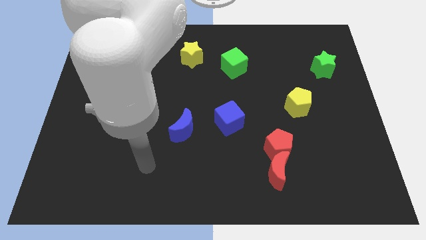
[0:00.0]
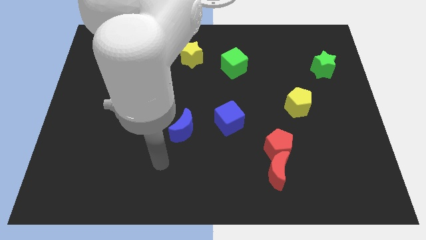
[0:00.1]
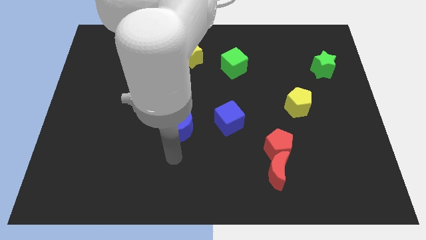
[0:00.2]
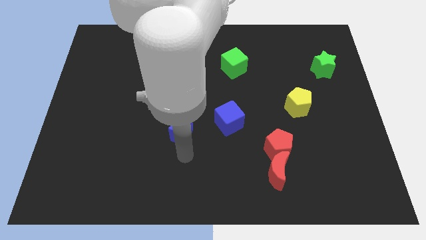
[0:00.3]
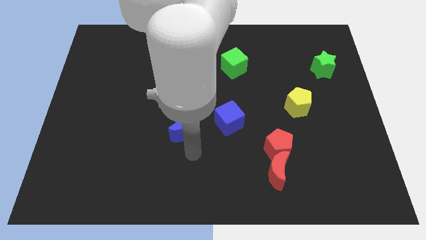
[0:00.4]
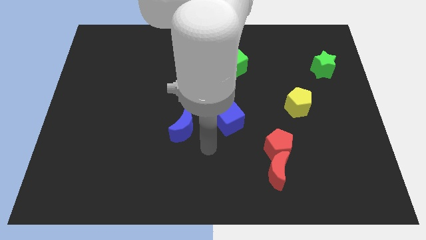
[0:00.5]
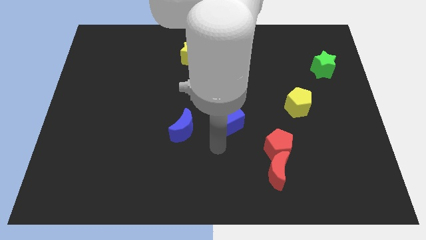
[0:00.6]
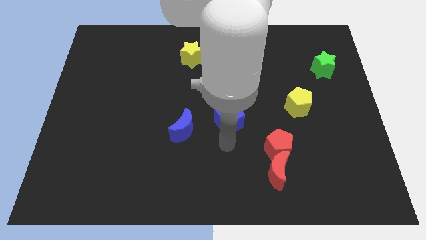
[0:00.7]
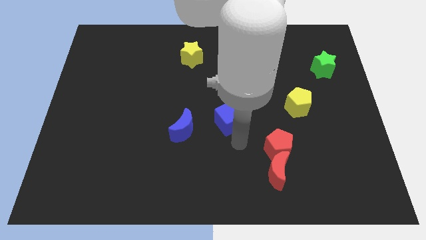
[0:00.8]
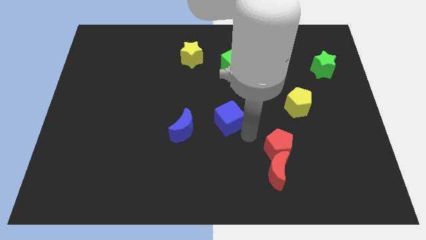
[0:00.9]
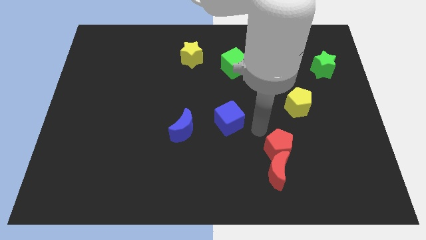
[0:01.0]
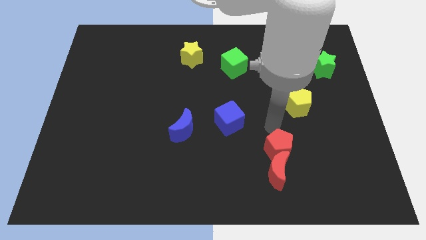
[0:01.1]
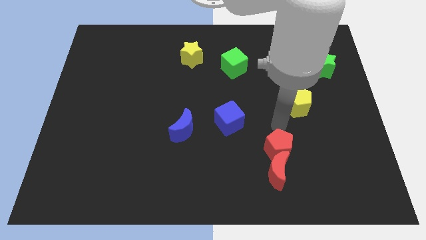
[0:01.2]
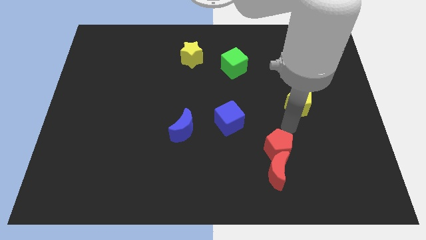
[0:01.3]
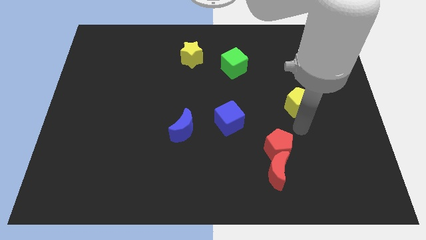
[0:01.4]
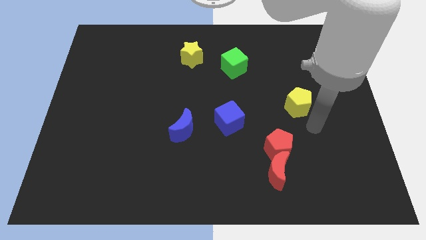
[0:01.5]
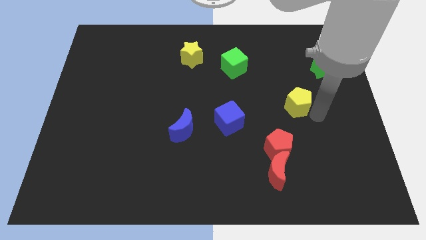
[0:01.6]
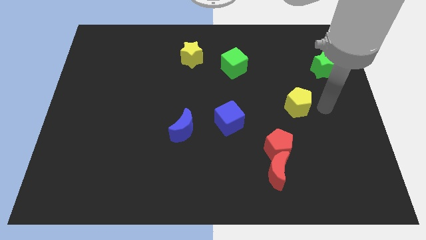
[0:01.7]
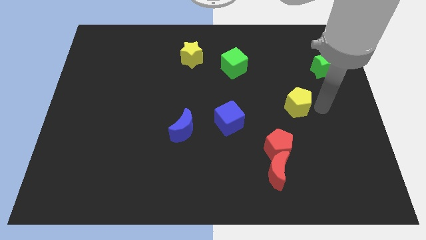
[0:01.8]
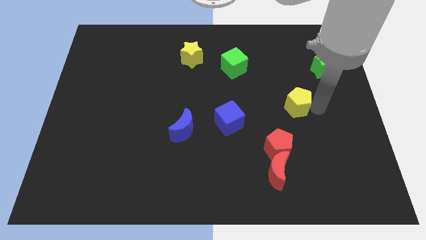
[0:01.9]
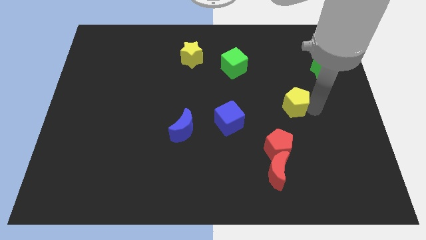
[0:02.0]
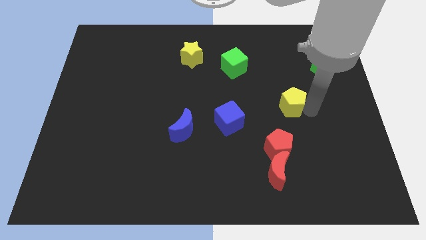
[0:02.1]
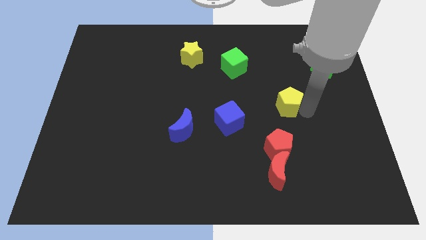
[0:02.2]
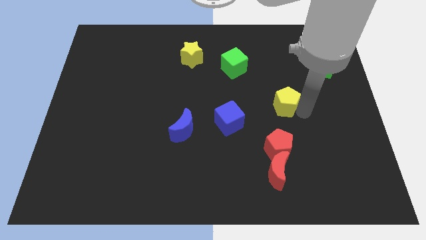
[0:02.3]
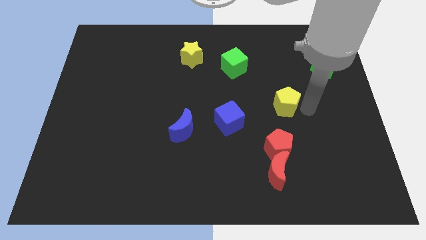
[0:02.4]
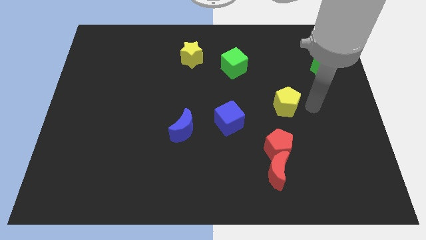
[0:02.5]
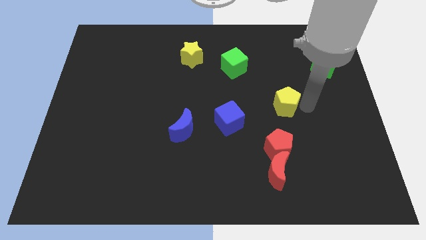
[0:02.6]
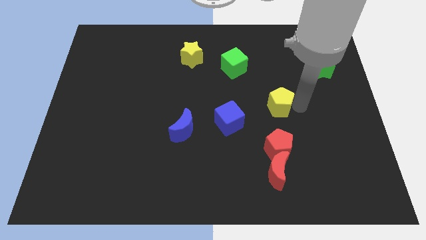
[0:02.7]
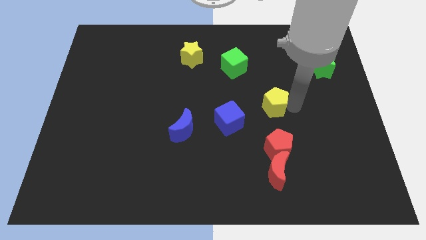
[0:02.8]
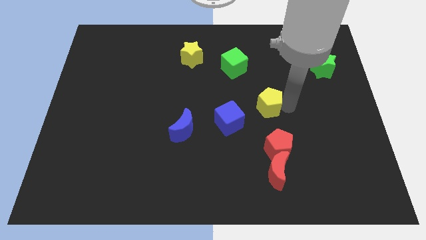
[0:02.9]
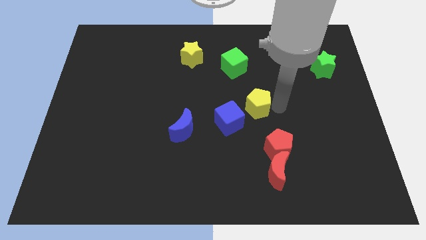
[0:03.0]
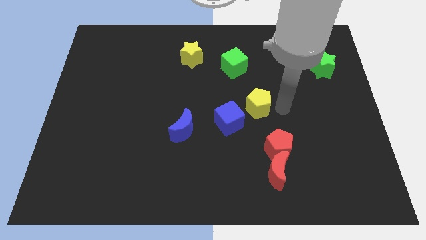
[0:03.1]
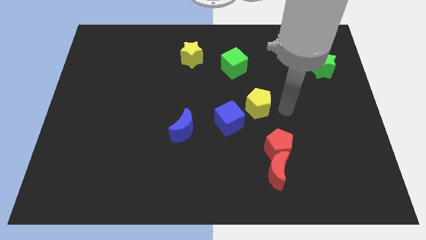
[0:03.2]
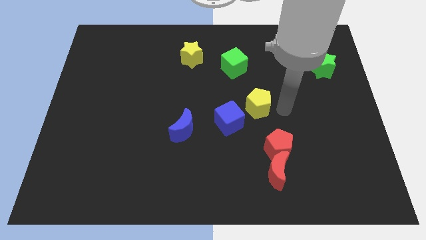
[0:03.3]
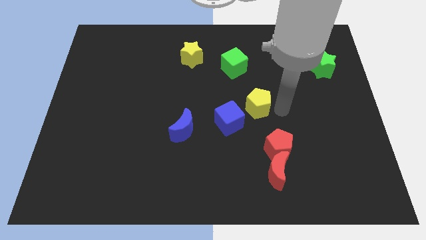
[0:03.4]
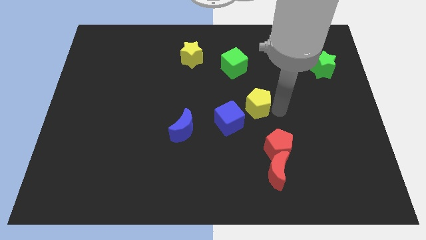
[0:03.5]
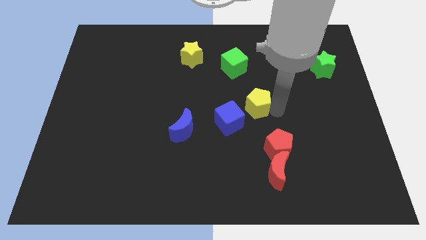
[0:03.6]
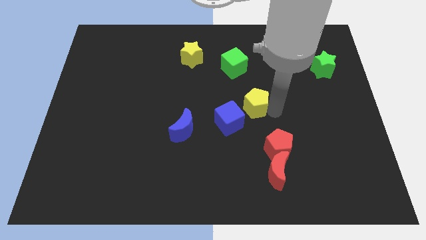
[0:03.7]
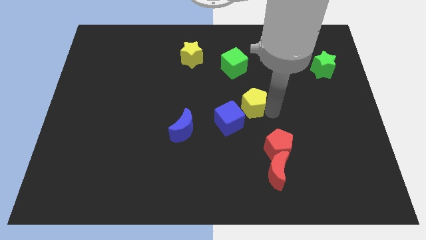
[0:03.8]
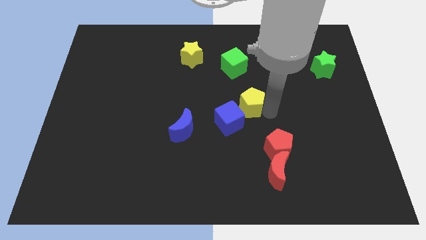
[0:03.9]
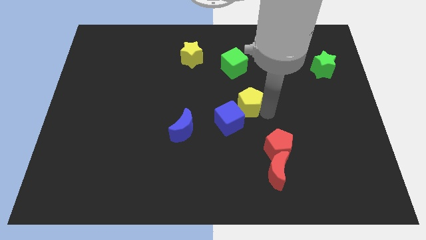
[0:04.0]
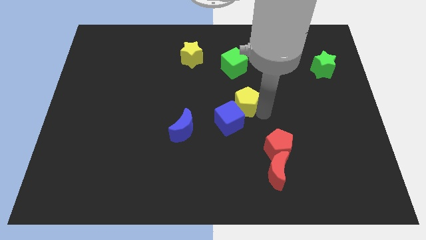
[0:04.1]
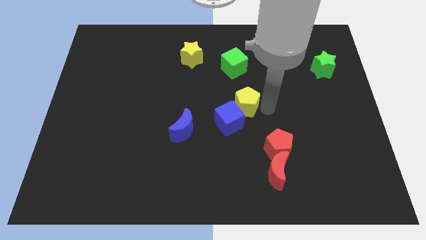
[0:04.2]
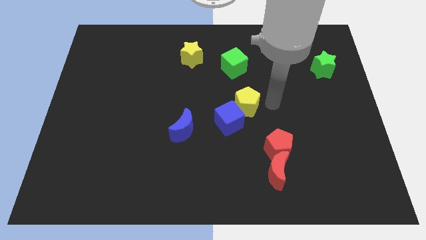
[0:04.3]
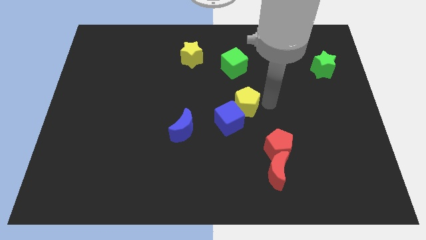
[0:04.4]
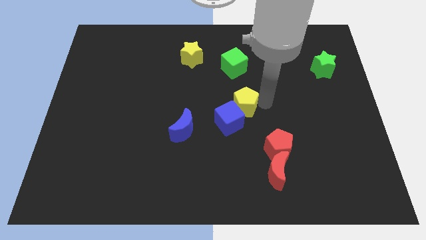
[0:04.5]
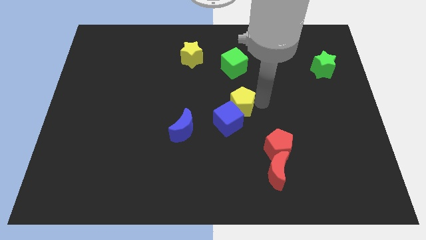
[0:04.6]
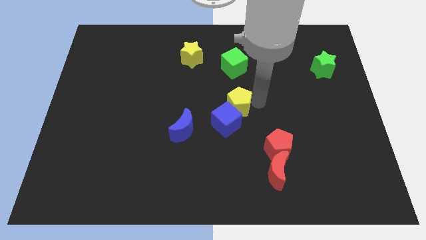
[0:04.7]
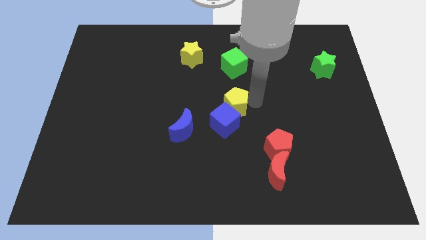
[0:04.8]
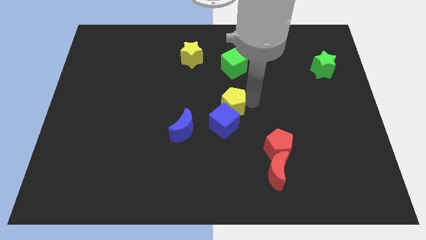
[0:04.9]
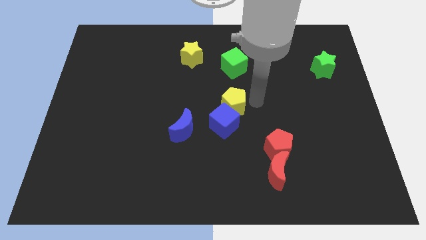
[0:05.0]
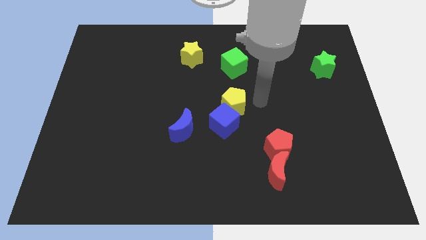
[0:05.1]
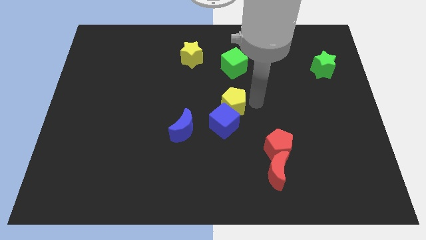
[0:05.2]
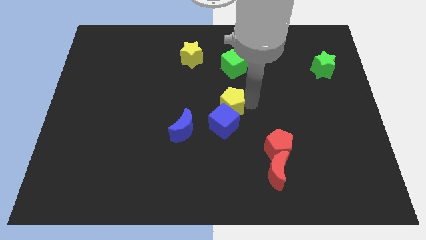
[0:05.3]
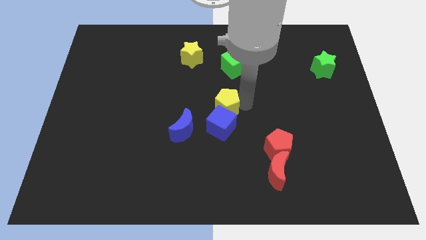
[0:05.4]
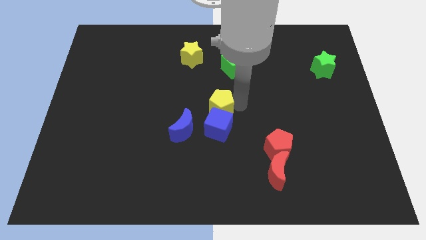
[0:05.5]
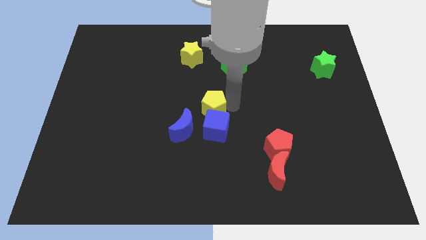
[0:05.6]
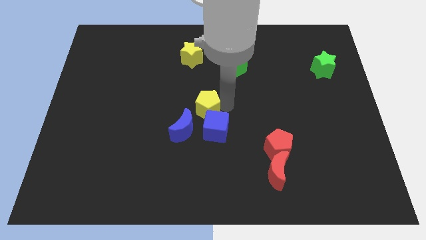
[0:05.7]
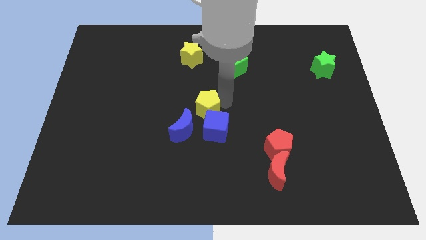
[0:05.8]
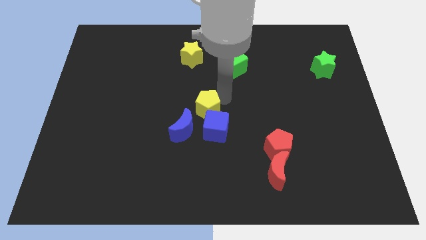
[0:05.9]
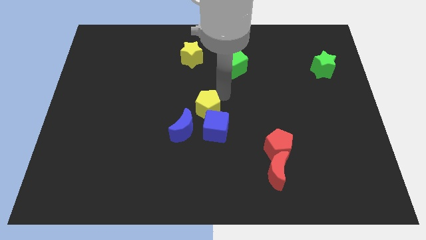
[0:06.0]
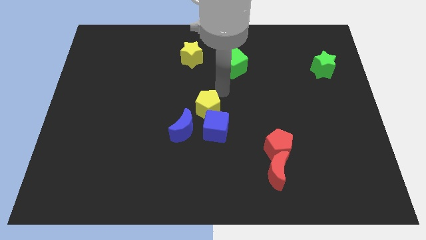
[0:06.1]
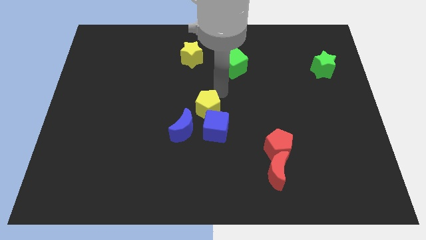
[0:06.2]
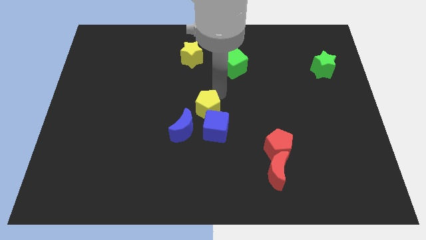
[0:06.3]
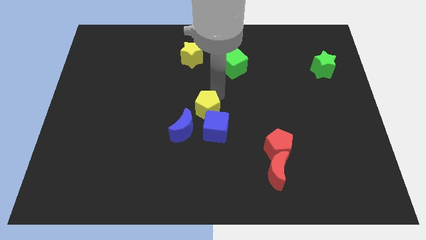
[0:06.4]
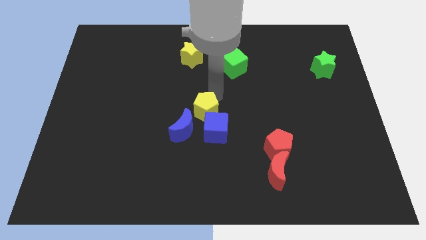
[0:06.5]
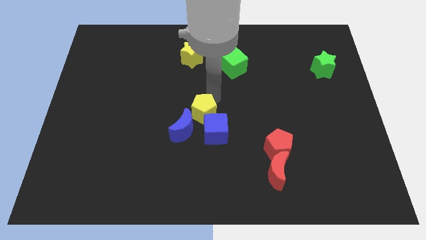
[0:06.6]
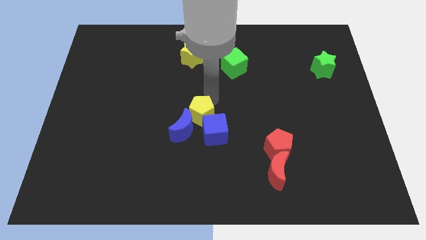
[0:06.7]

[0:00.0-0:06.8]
slide the yellow pentagon to the blue moon
